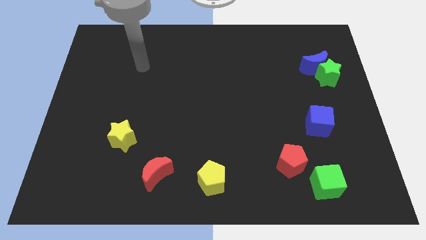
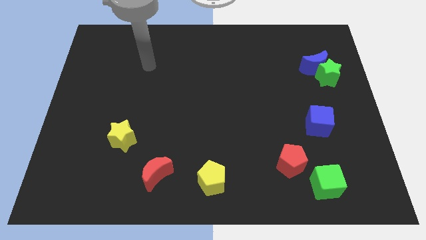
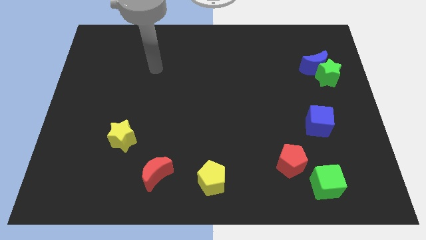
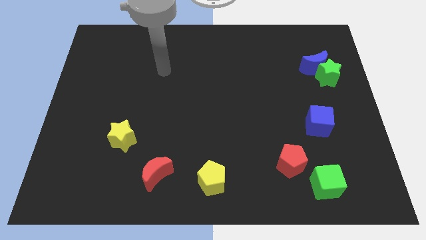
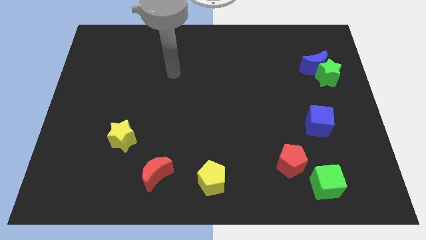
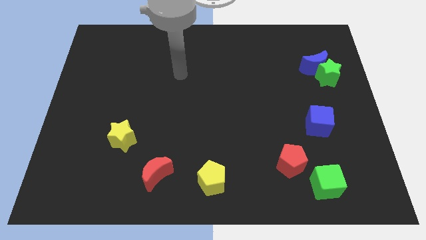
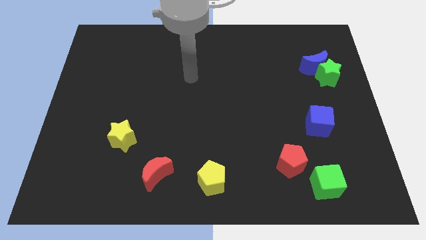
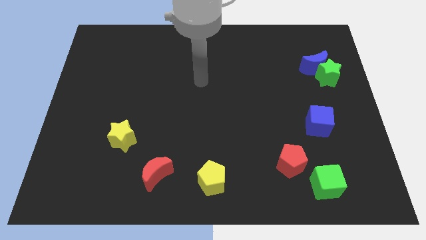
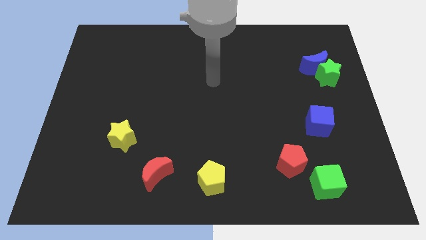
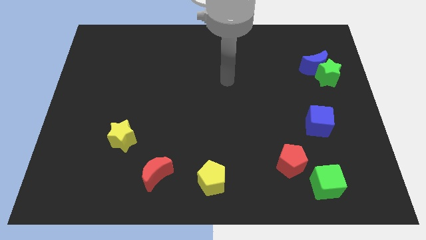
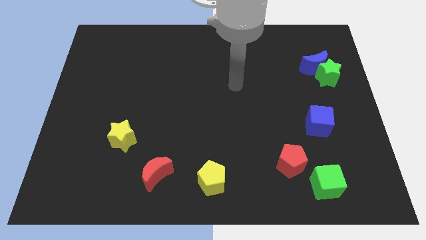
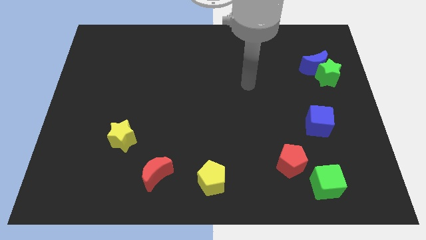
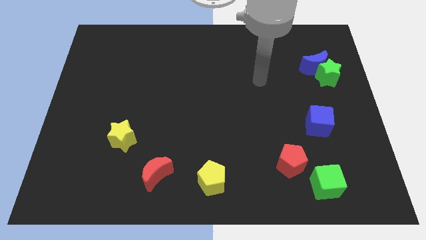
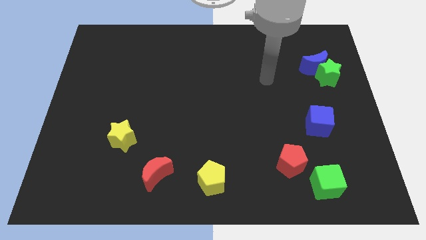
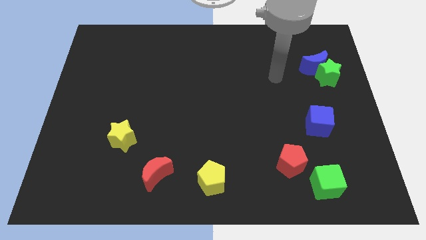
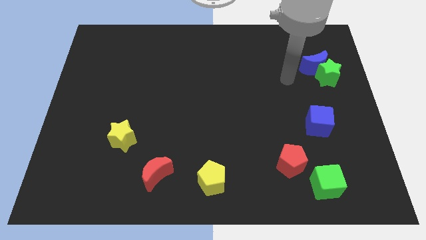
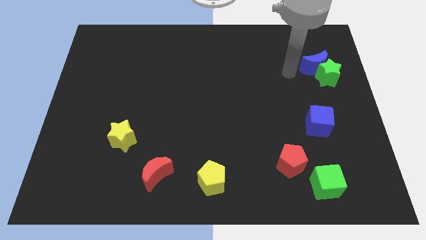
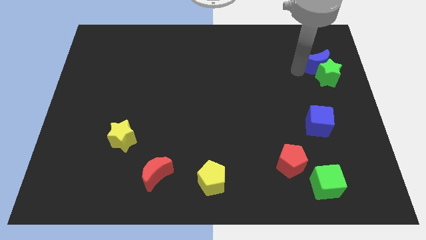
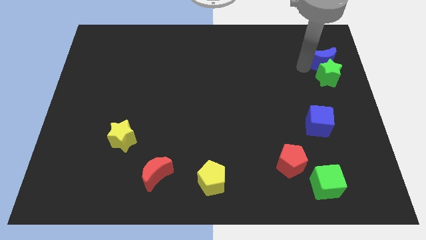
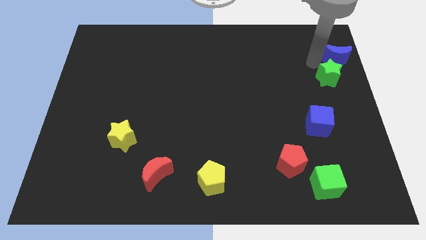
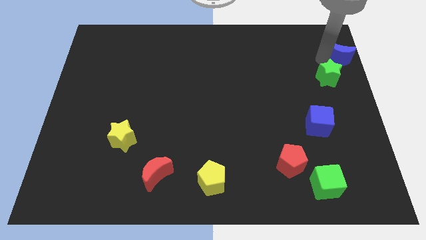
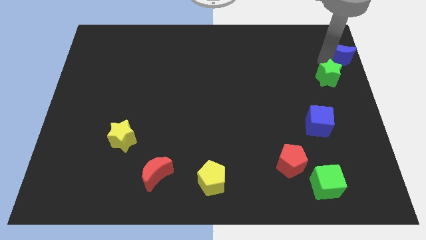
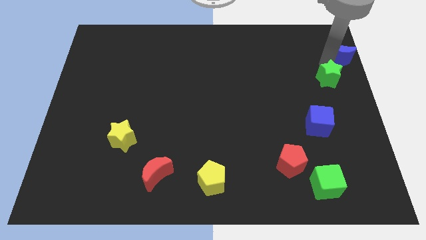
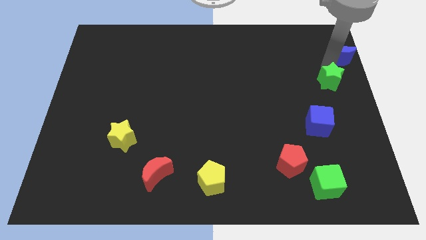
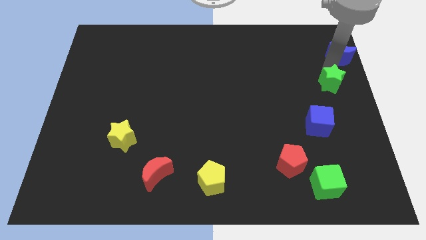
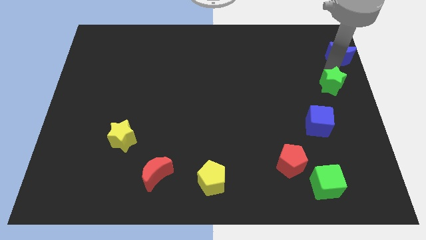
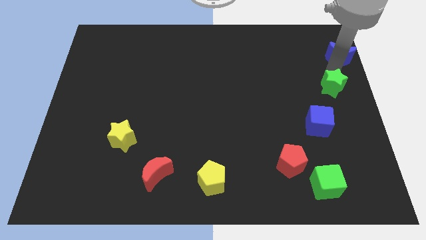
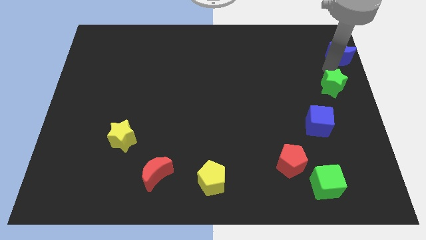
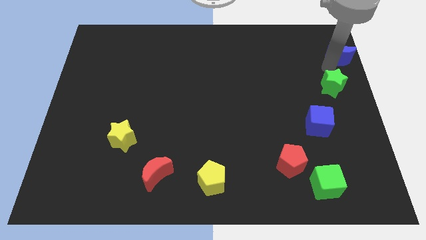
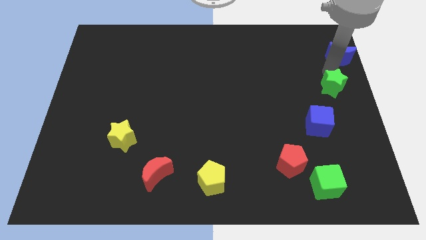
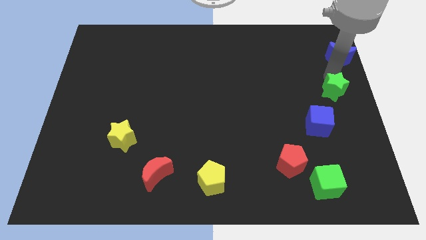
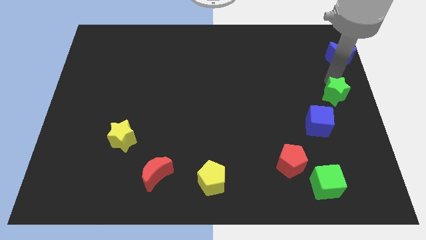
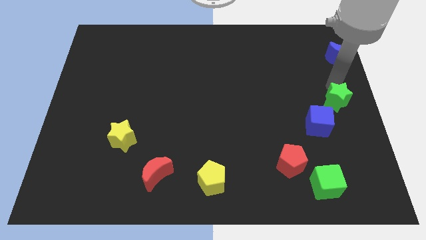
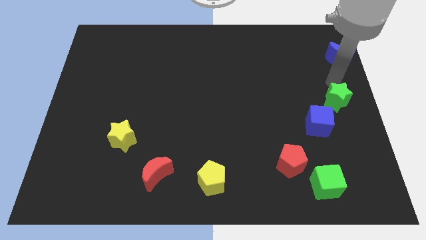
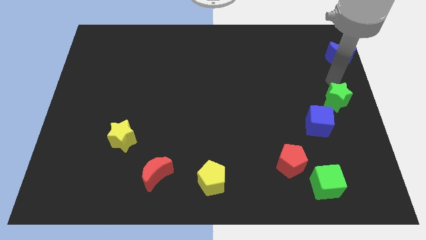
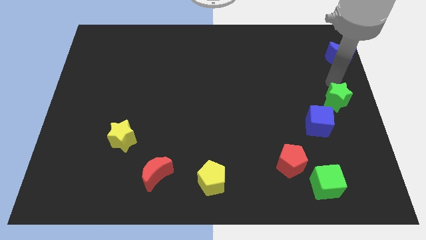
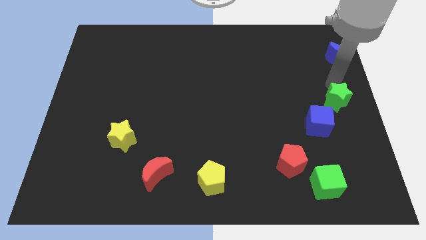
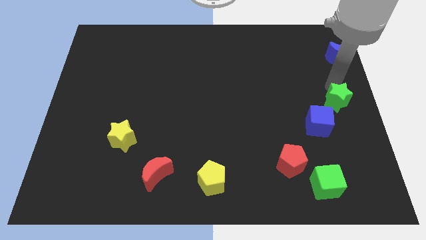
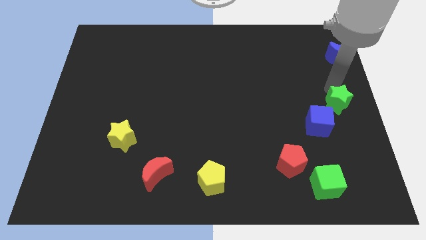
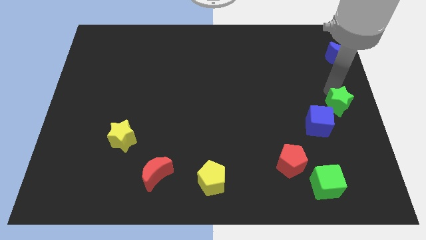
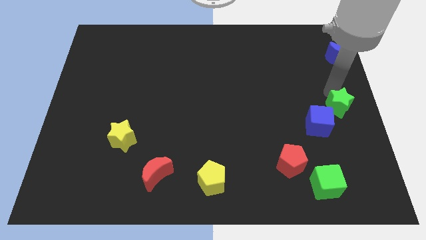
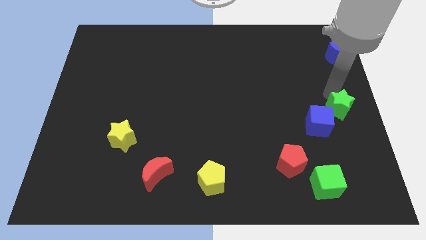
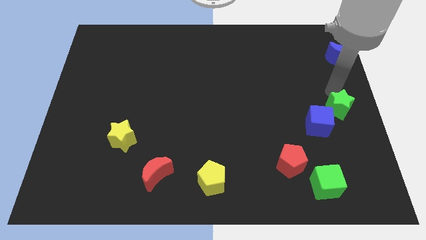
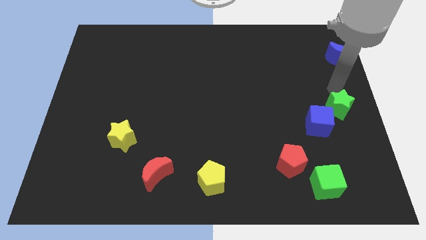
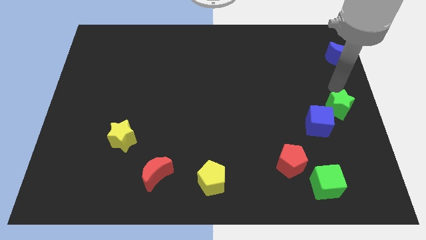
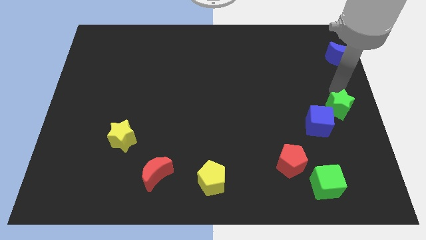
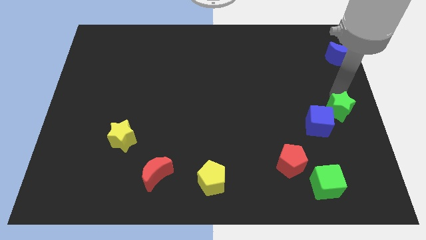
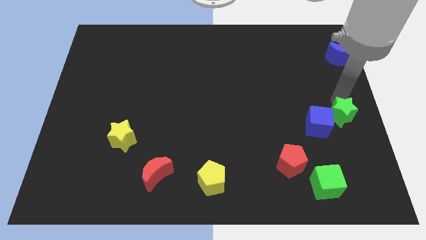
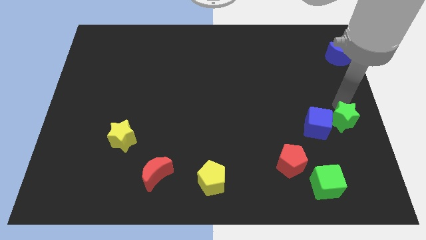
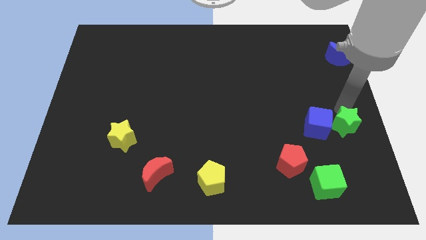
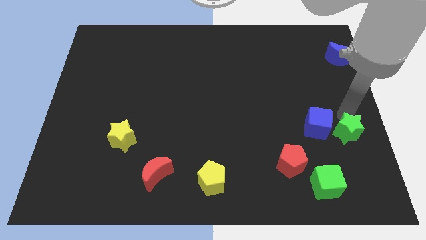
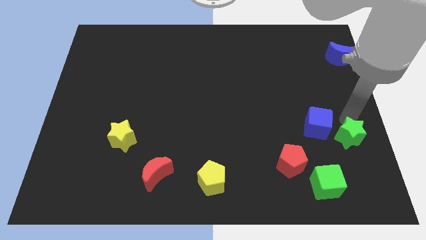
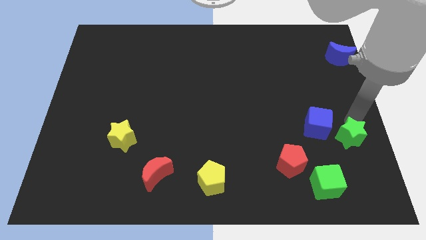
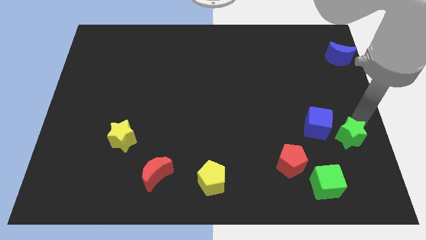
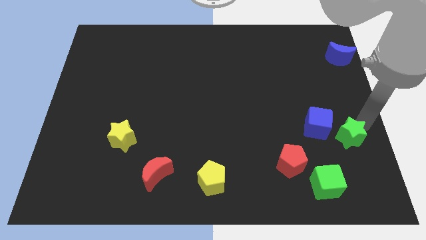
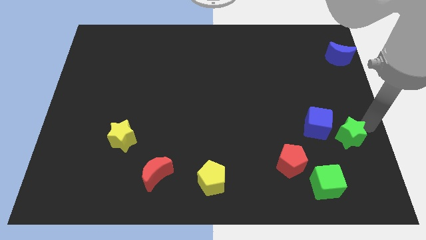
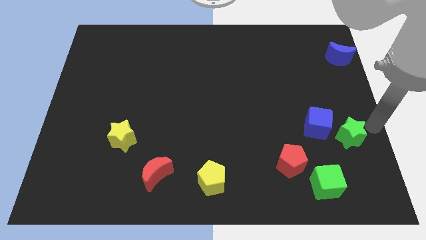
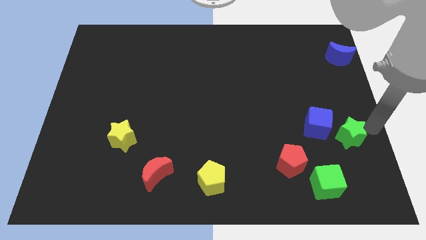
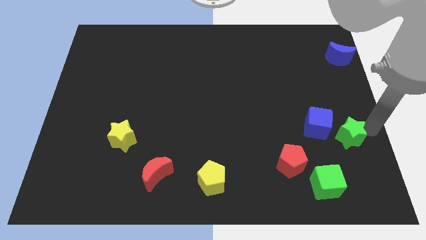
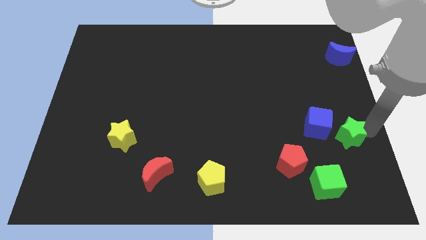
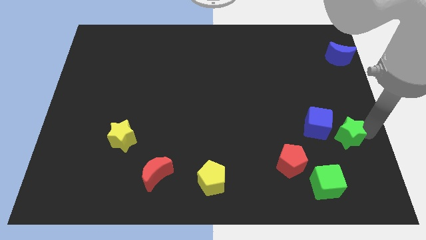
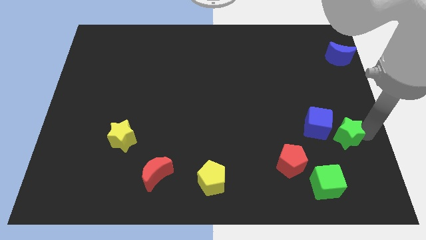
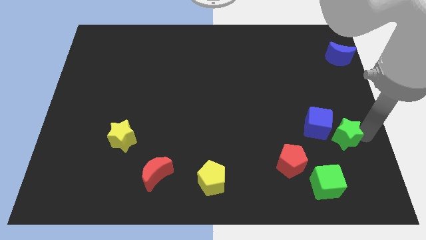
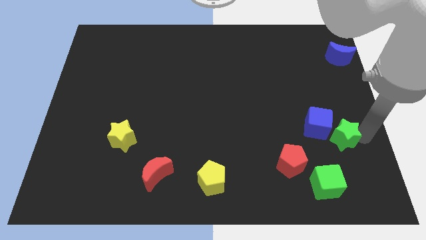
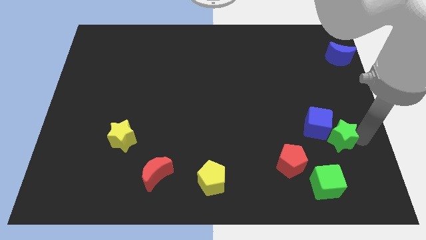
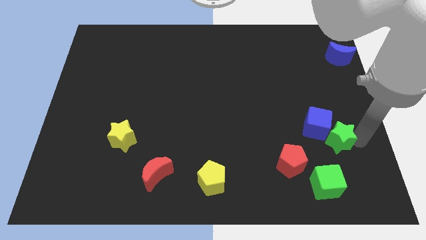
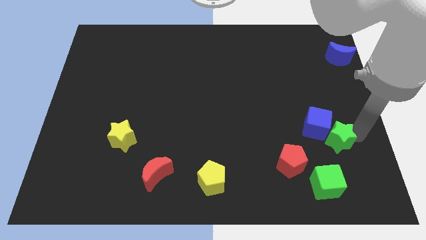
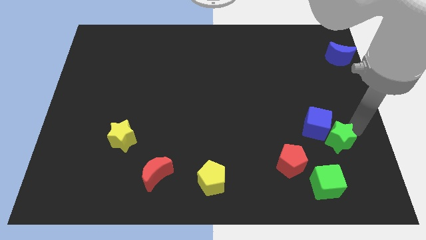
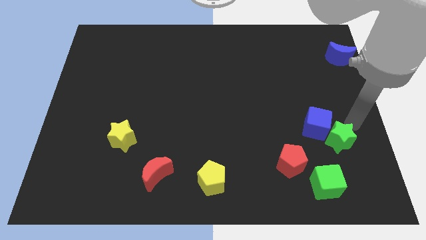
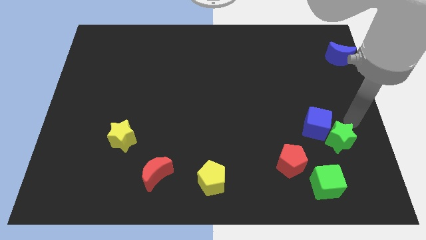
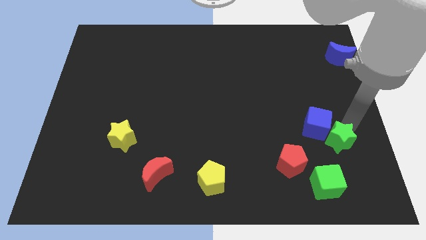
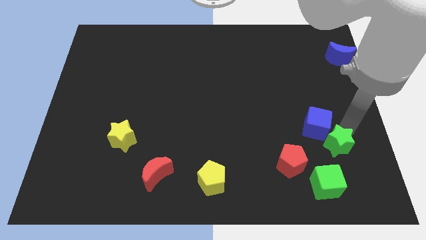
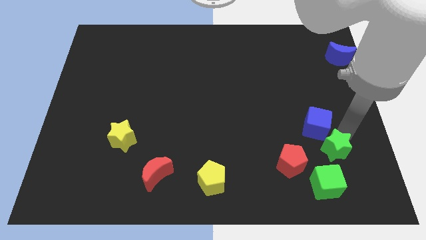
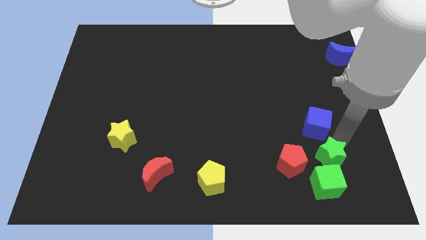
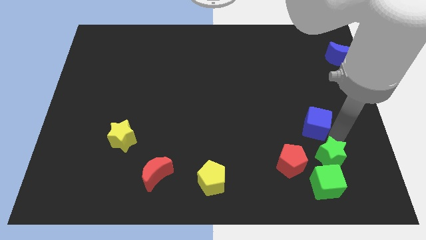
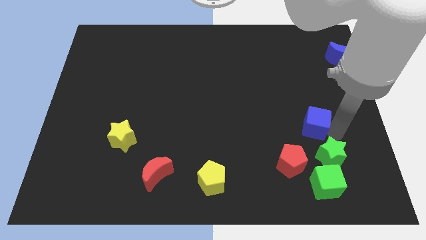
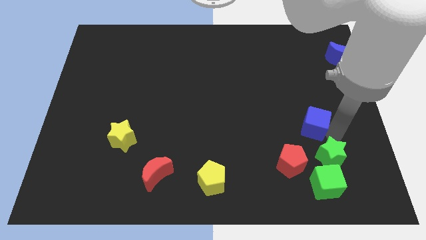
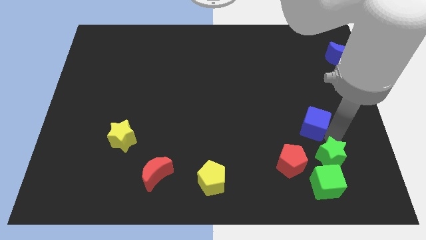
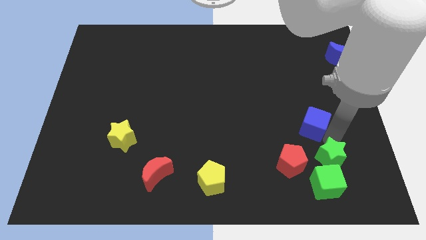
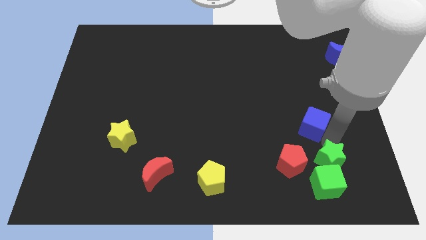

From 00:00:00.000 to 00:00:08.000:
push the green star next to the green cube
